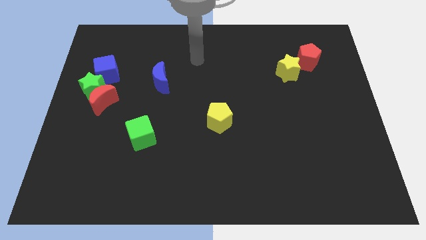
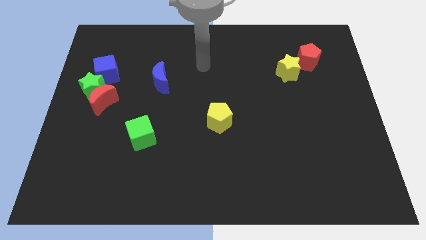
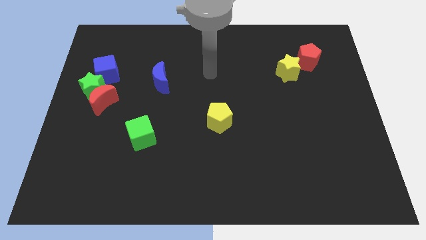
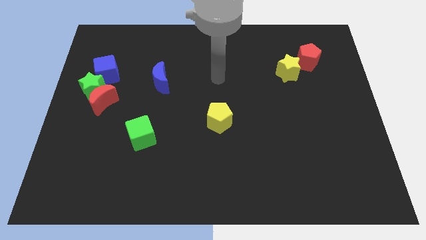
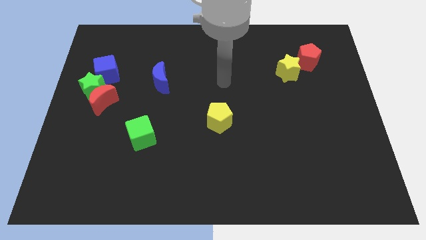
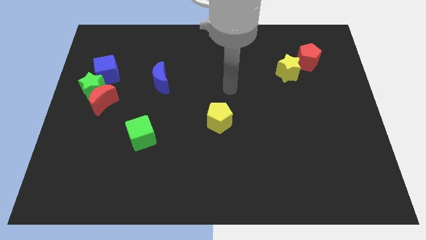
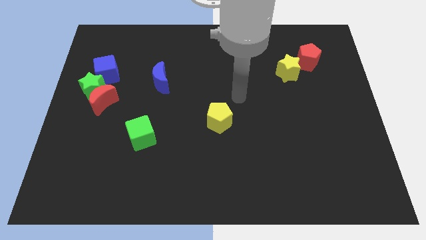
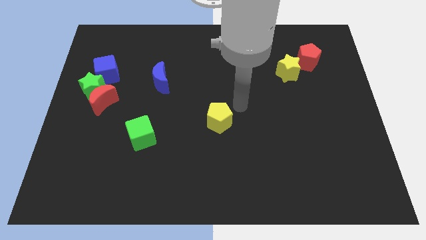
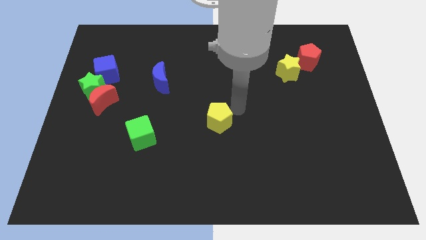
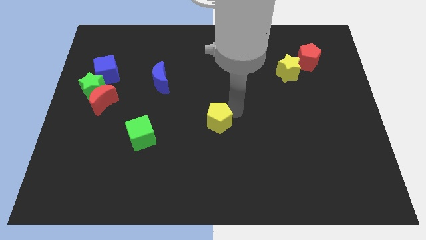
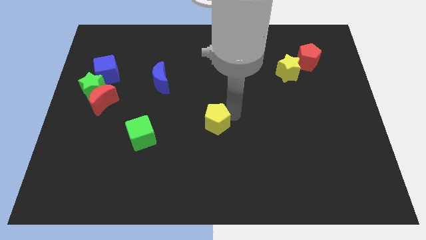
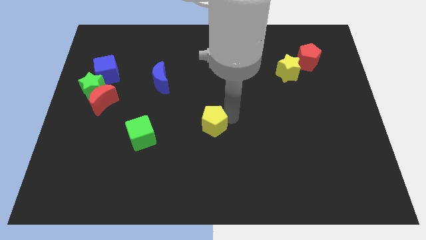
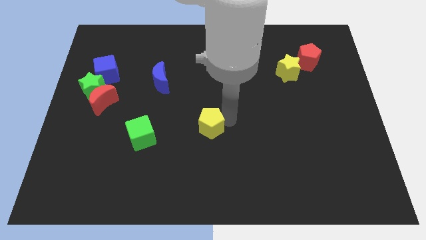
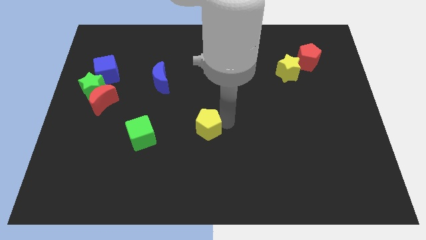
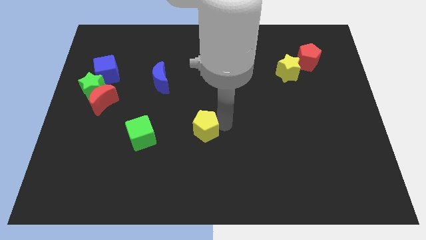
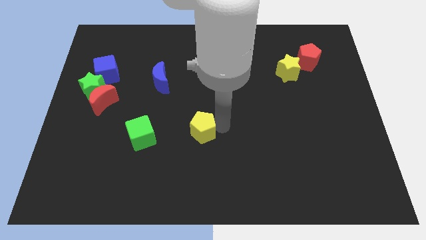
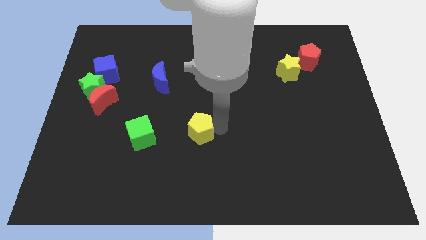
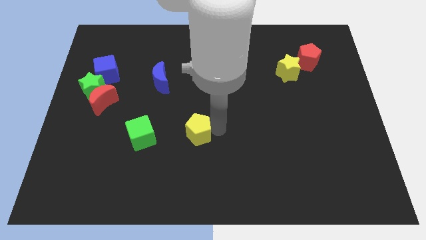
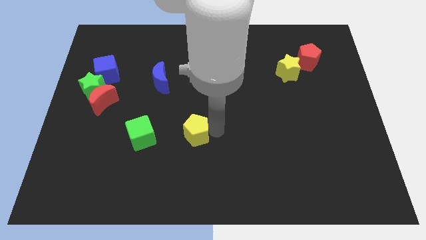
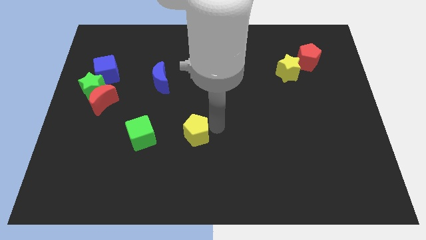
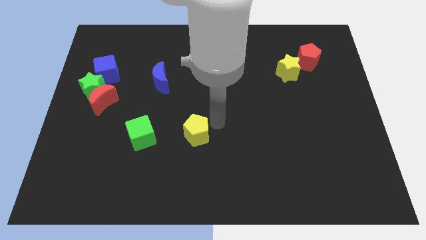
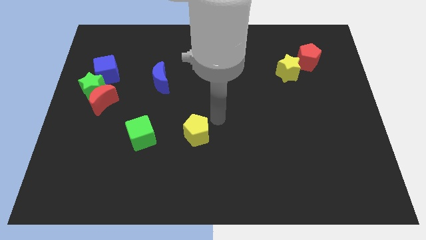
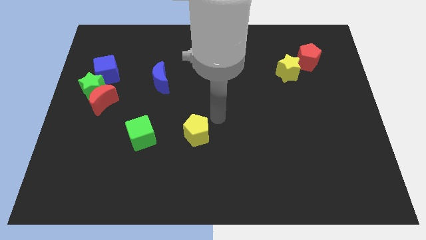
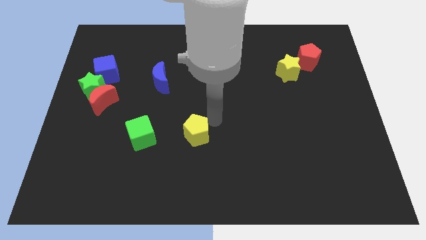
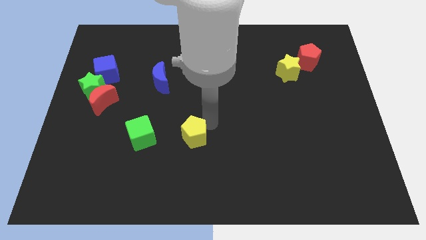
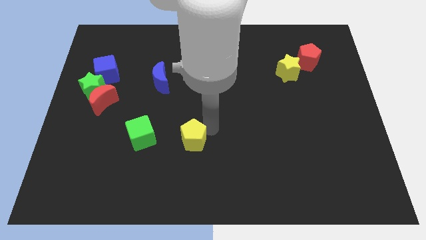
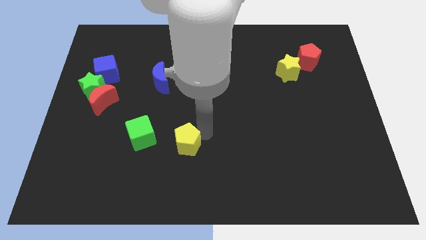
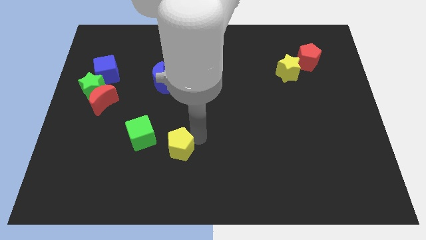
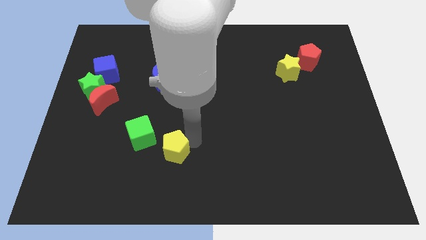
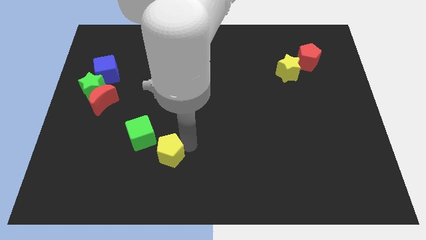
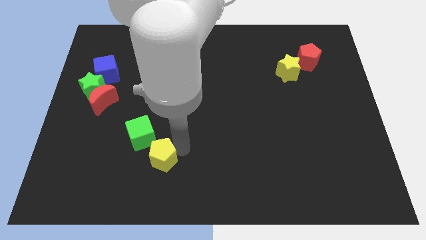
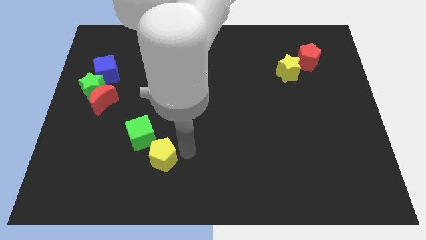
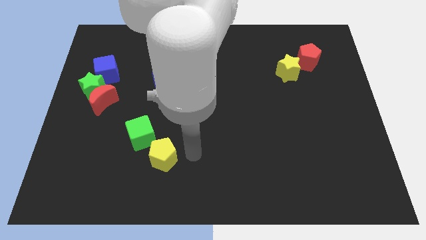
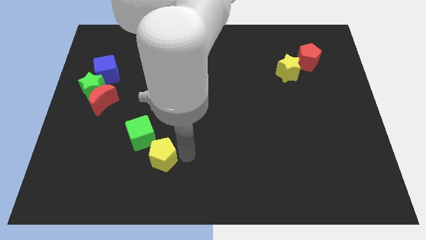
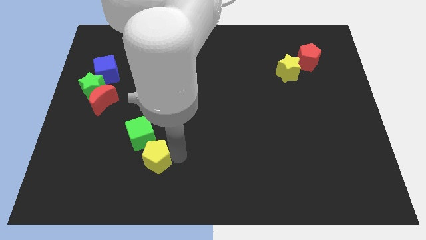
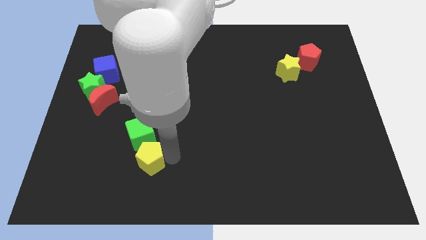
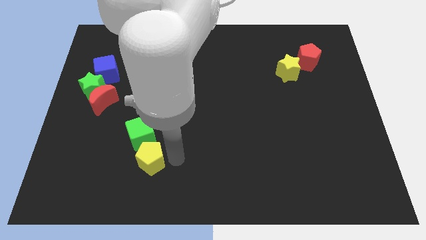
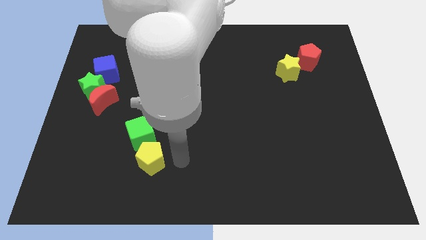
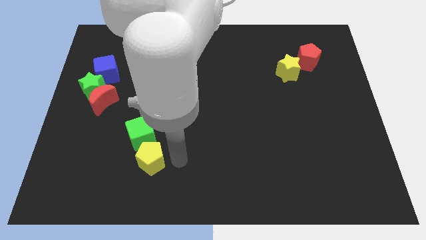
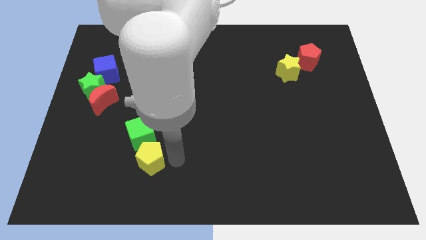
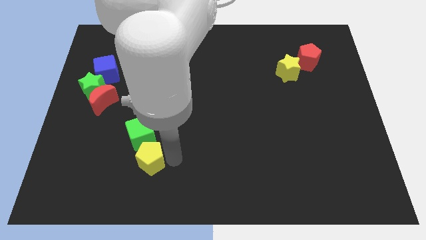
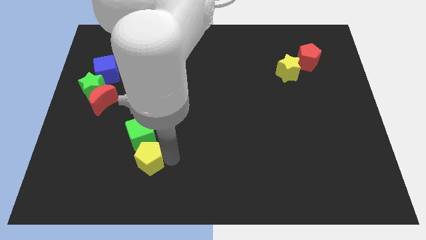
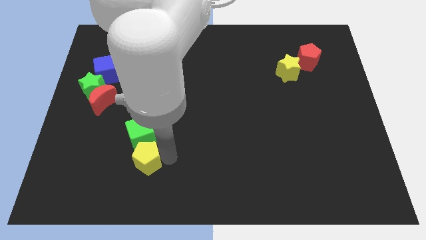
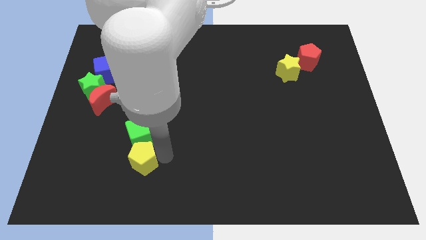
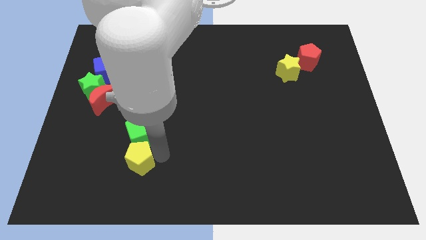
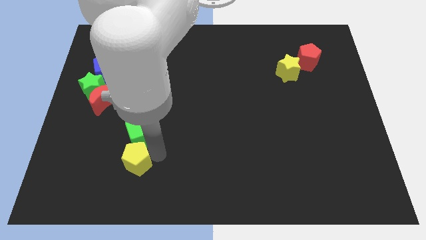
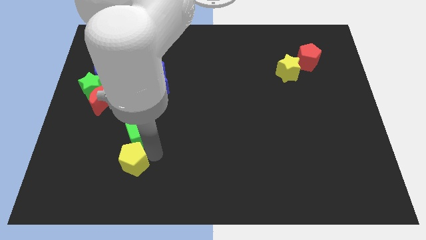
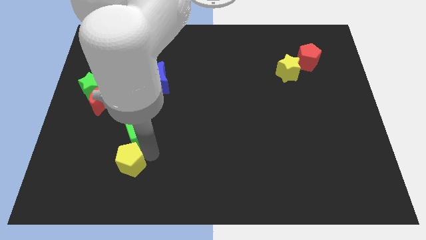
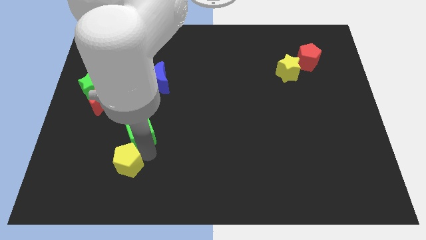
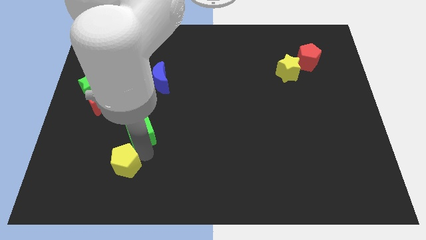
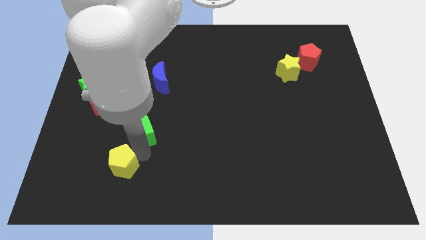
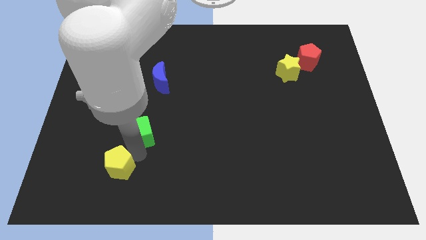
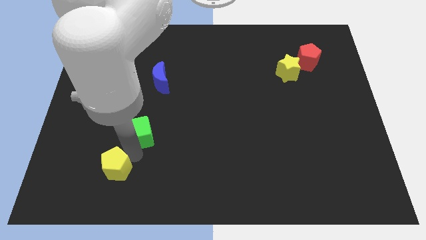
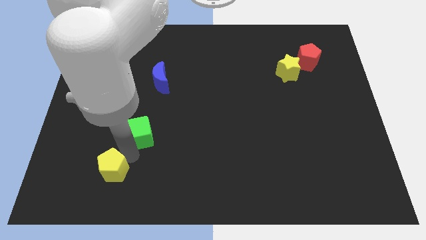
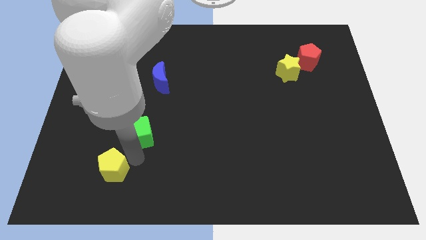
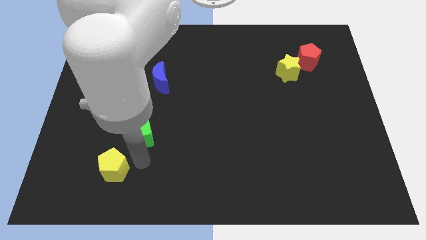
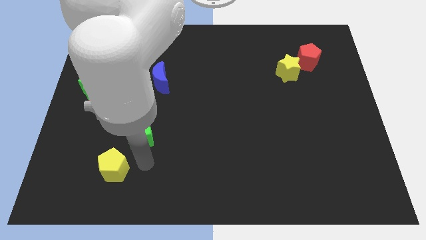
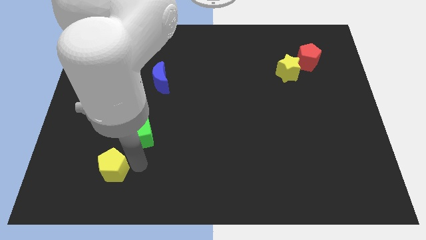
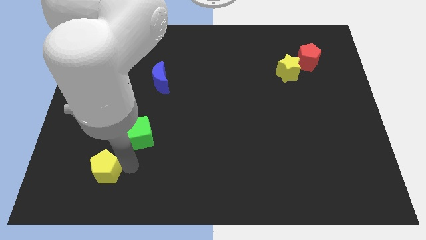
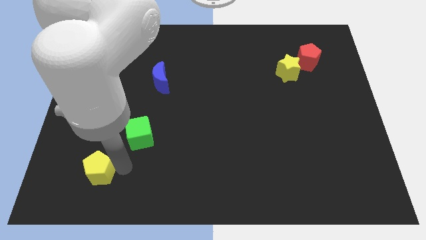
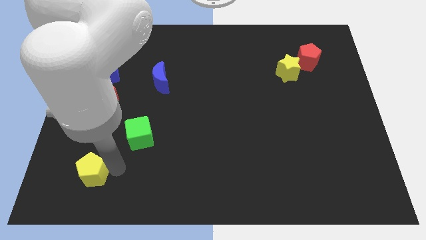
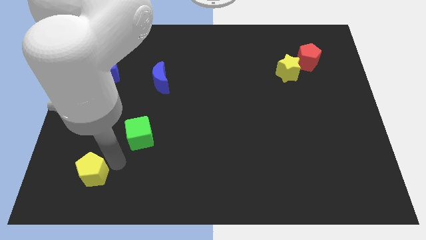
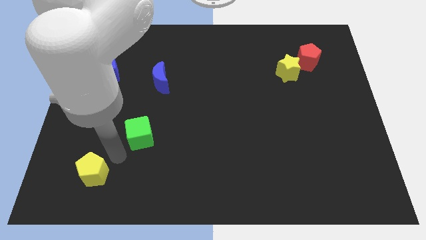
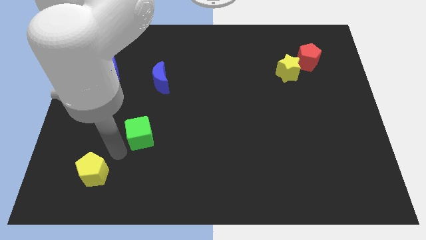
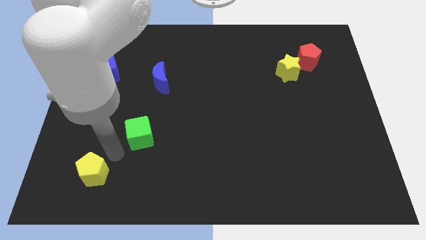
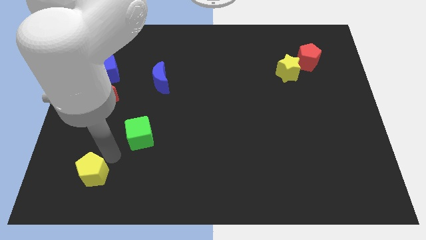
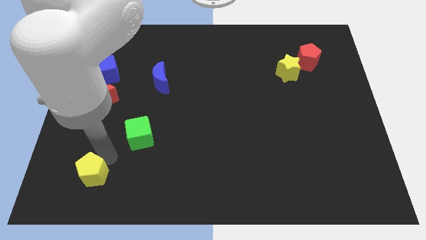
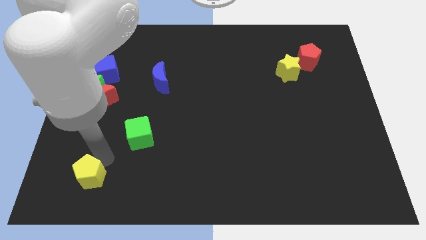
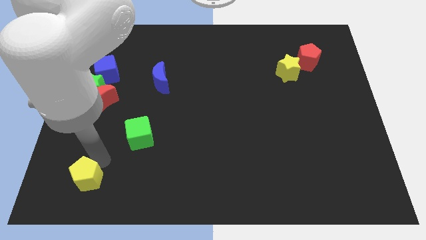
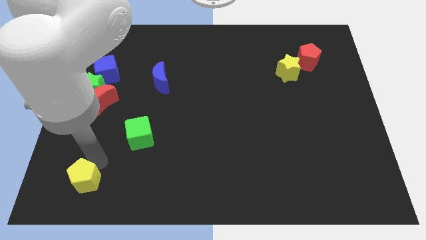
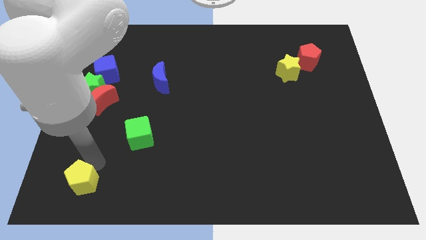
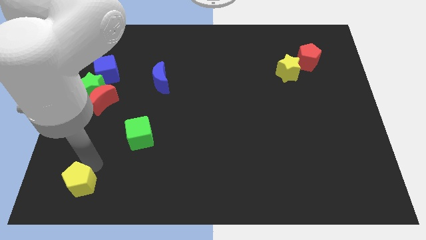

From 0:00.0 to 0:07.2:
move the yellow pentagon to the bottom left
